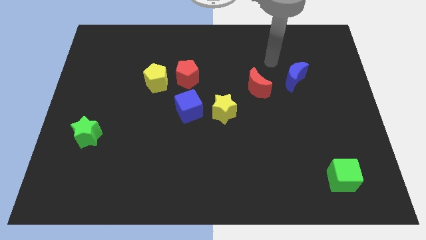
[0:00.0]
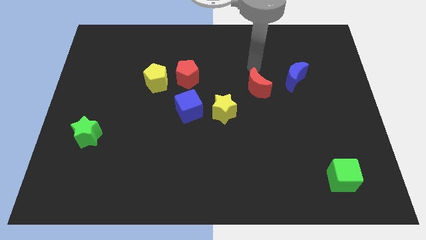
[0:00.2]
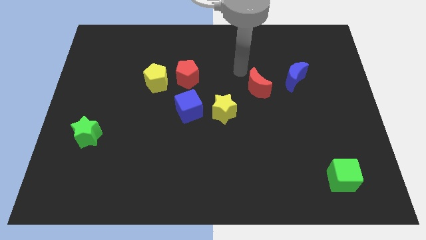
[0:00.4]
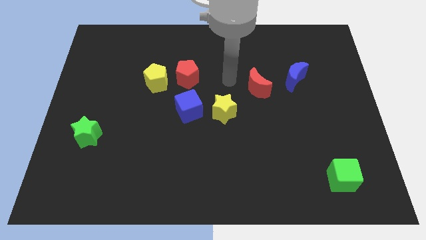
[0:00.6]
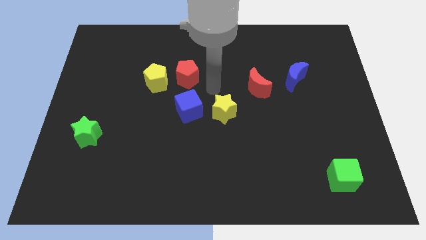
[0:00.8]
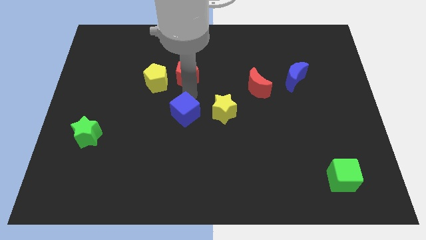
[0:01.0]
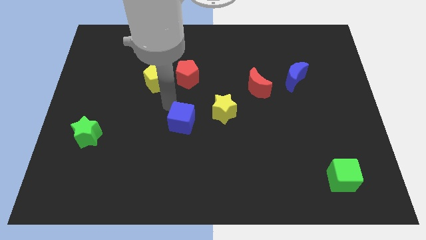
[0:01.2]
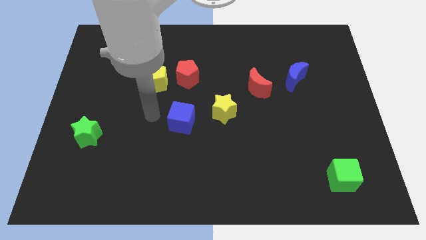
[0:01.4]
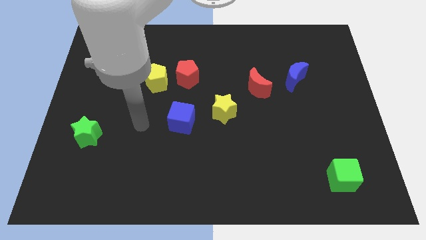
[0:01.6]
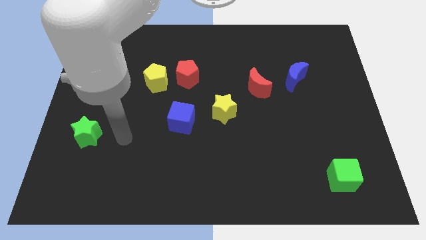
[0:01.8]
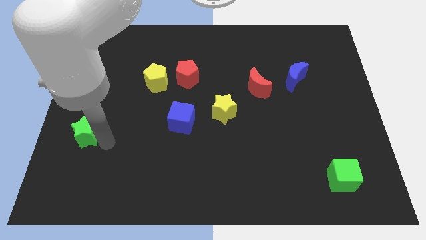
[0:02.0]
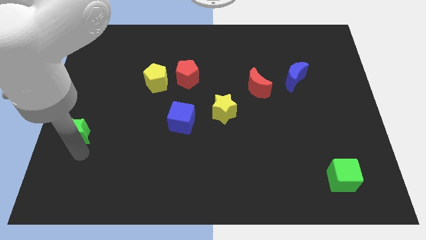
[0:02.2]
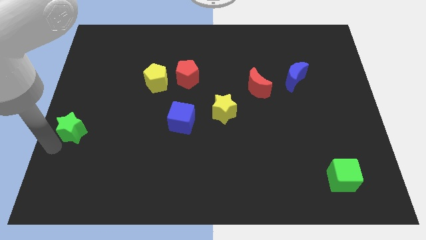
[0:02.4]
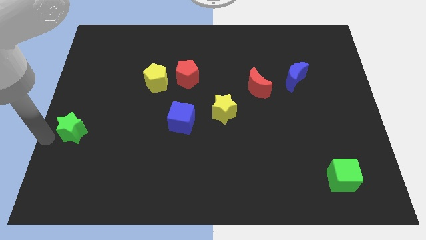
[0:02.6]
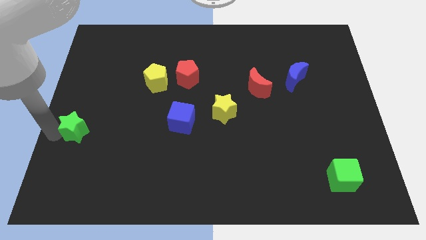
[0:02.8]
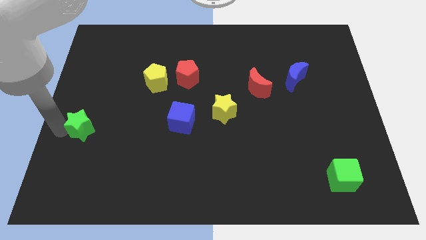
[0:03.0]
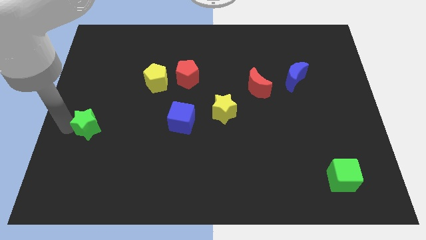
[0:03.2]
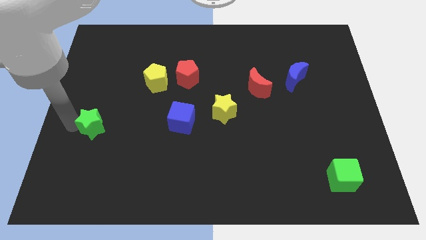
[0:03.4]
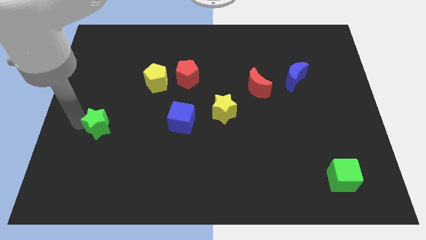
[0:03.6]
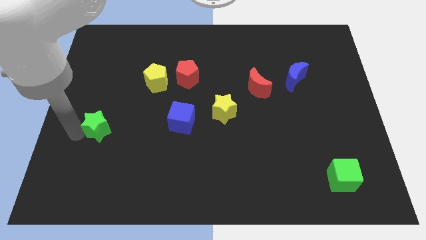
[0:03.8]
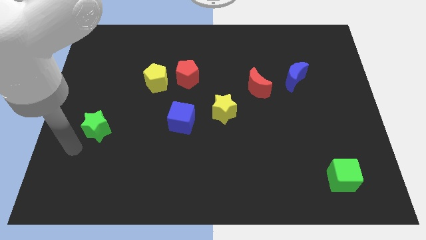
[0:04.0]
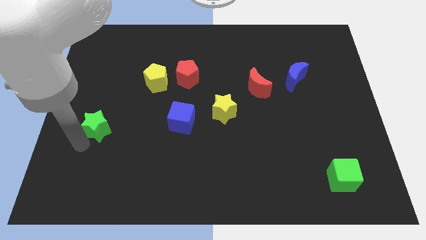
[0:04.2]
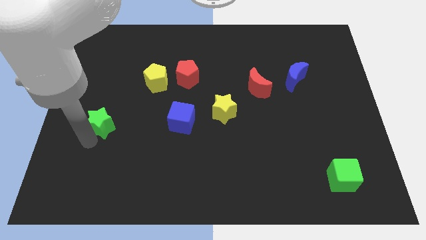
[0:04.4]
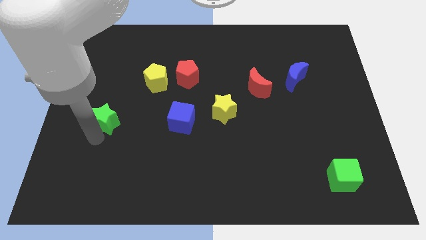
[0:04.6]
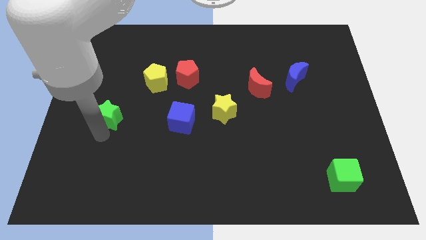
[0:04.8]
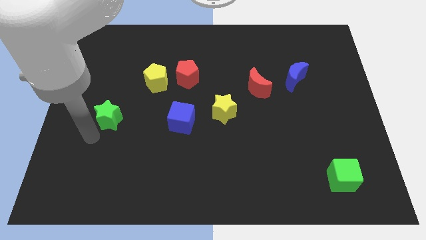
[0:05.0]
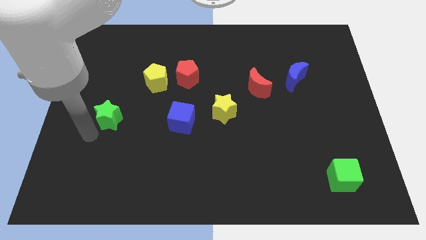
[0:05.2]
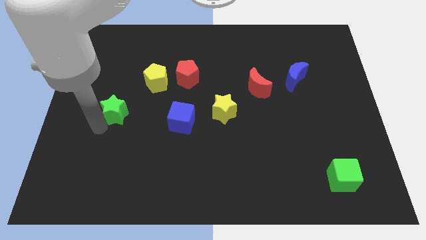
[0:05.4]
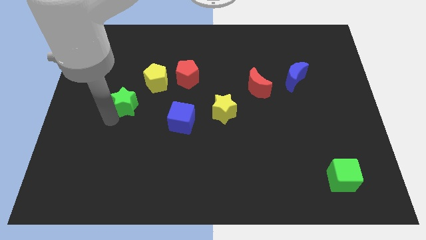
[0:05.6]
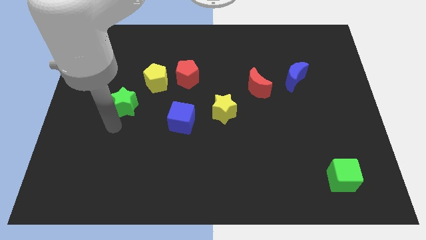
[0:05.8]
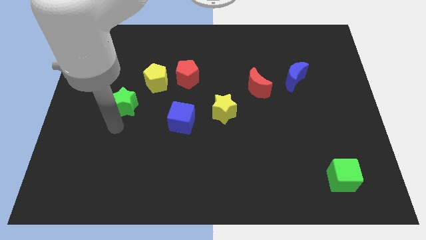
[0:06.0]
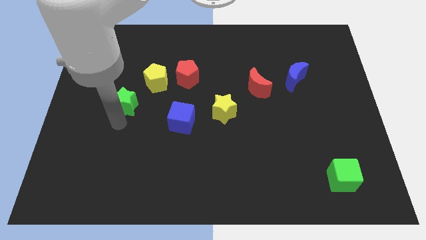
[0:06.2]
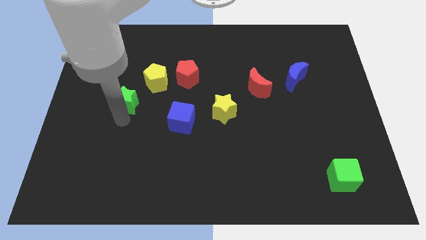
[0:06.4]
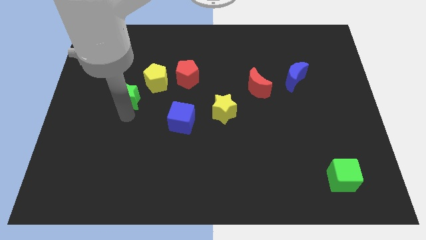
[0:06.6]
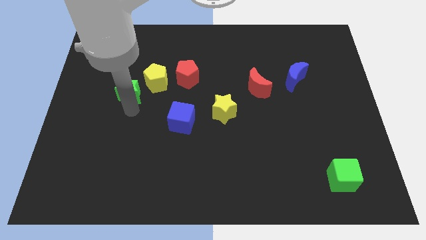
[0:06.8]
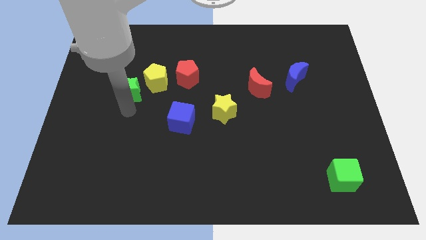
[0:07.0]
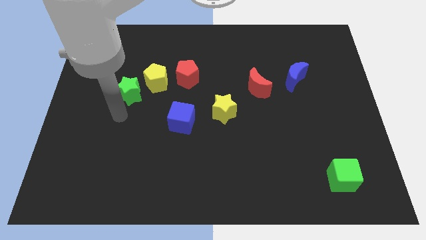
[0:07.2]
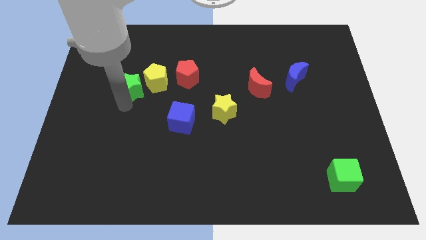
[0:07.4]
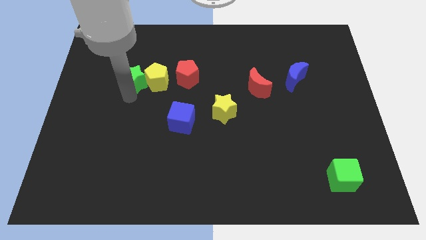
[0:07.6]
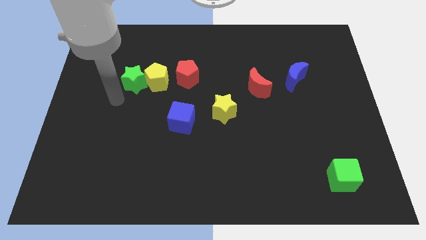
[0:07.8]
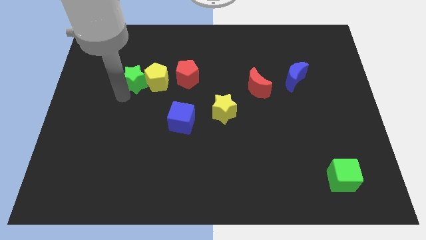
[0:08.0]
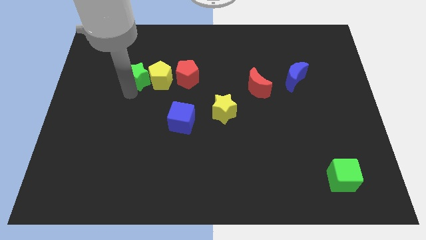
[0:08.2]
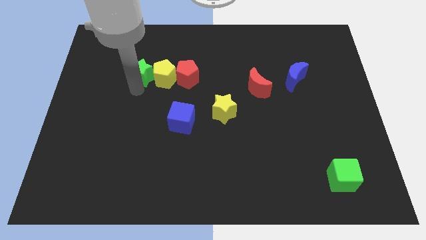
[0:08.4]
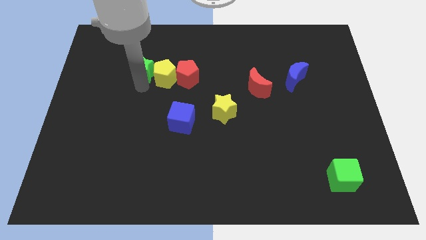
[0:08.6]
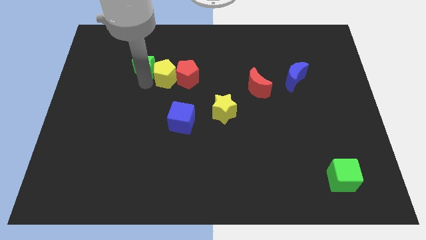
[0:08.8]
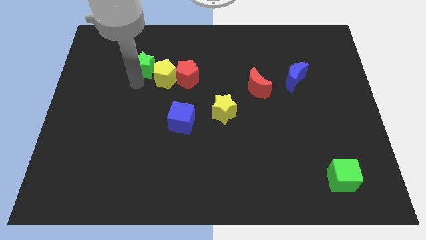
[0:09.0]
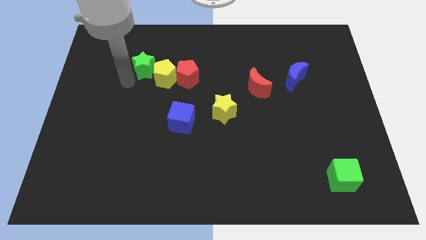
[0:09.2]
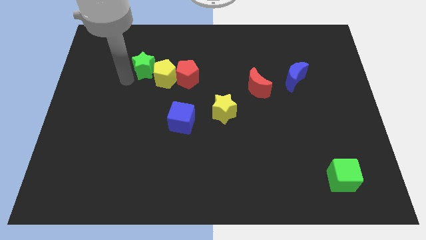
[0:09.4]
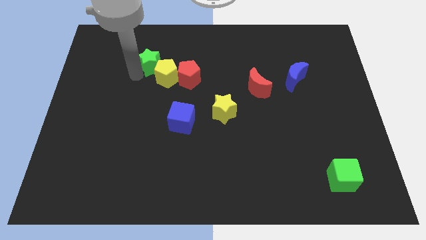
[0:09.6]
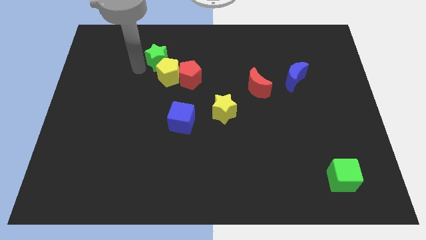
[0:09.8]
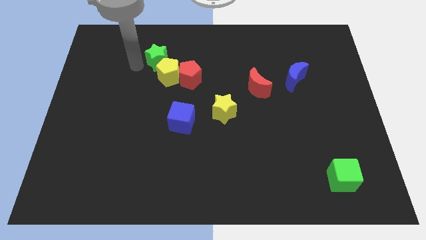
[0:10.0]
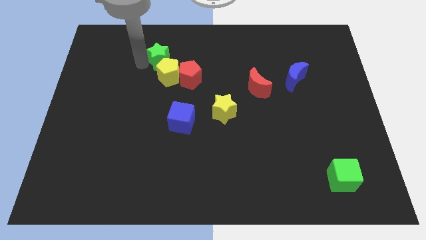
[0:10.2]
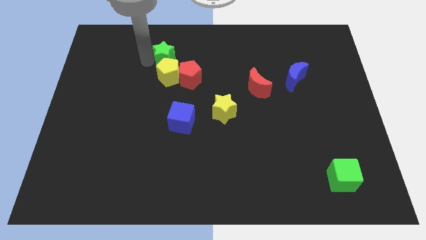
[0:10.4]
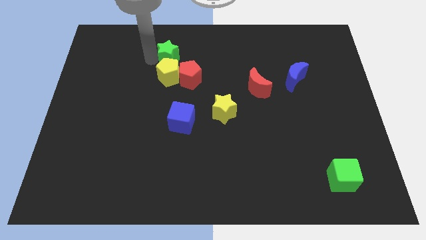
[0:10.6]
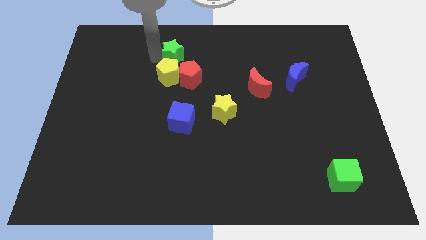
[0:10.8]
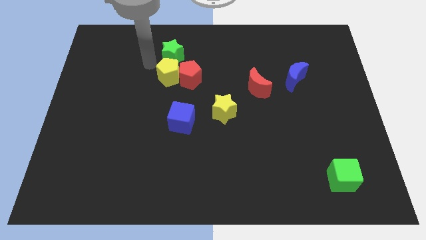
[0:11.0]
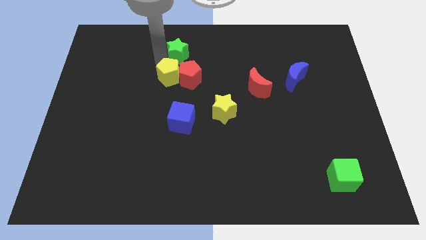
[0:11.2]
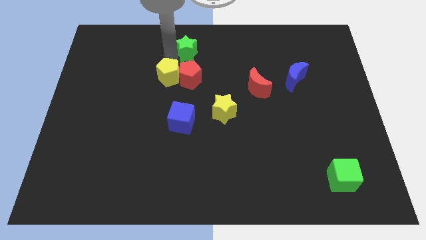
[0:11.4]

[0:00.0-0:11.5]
slide the green star to the towards your base

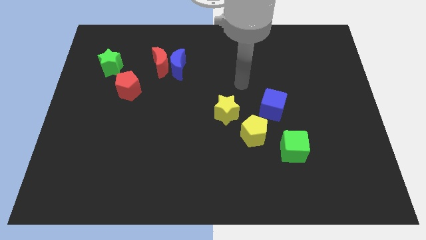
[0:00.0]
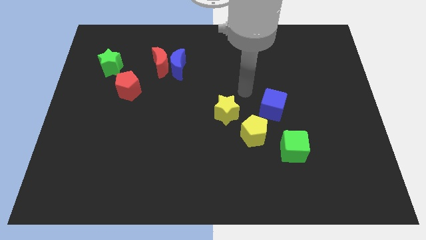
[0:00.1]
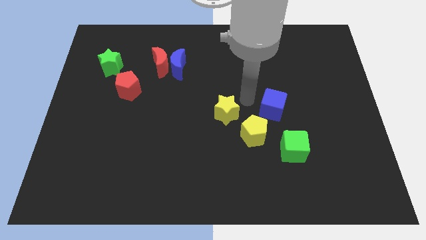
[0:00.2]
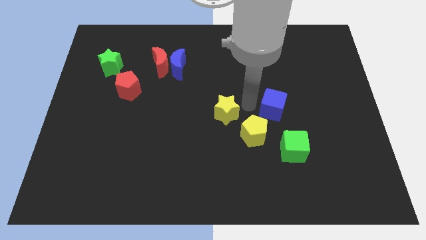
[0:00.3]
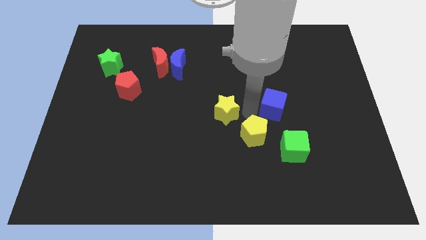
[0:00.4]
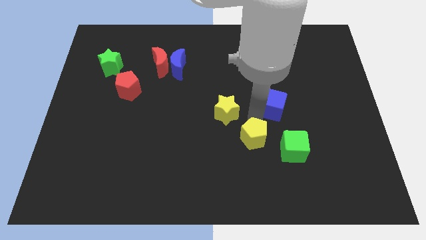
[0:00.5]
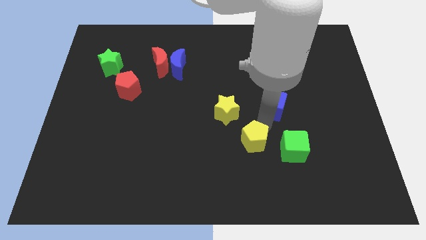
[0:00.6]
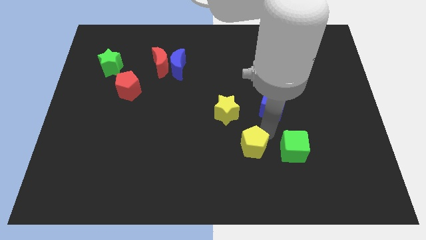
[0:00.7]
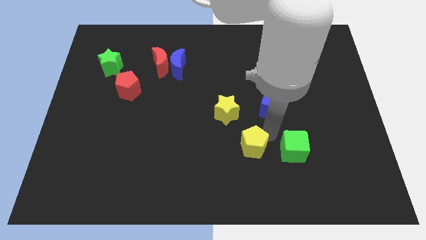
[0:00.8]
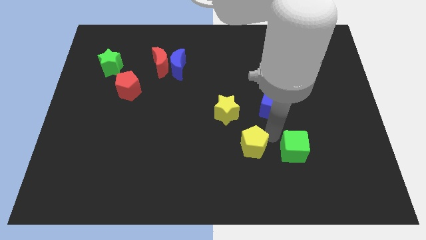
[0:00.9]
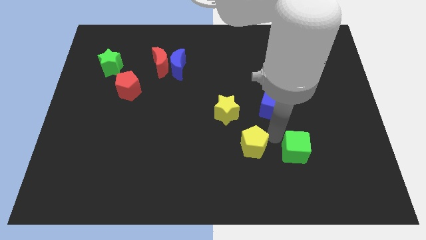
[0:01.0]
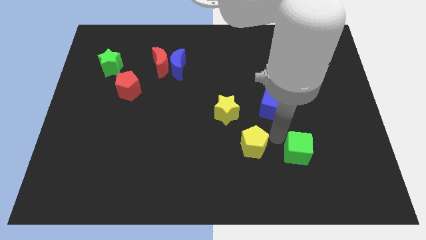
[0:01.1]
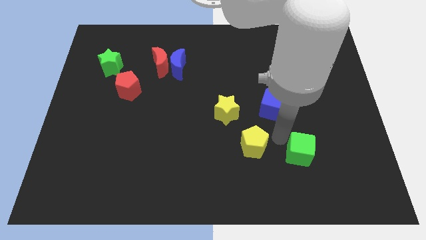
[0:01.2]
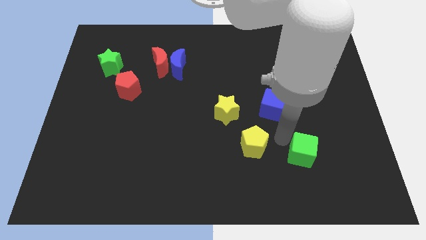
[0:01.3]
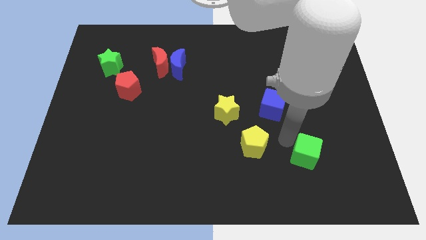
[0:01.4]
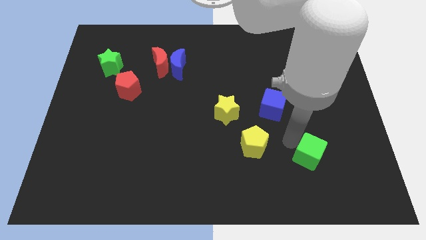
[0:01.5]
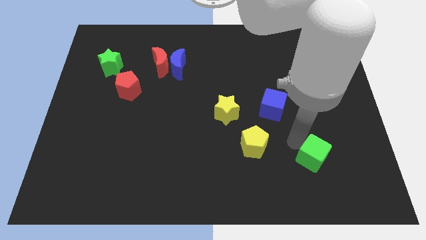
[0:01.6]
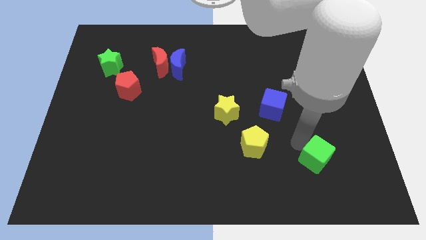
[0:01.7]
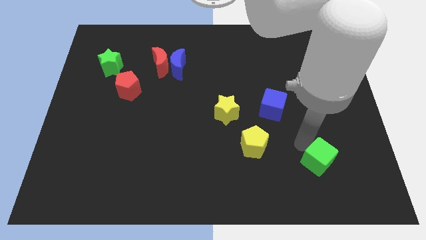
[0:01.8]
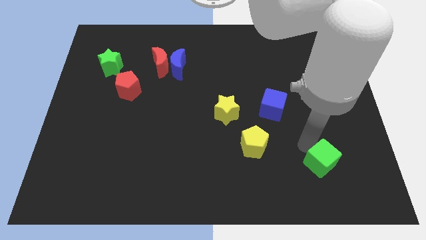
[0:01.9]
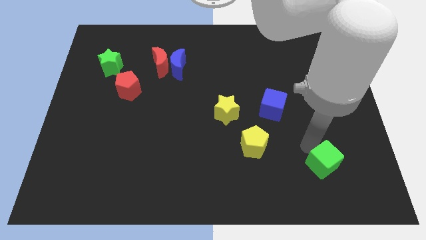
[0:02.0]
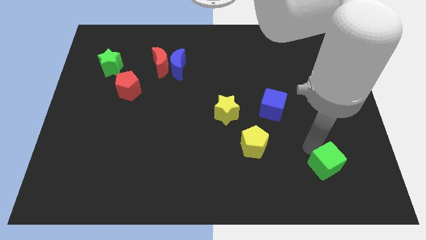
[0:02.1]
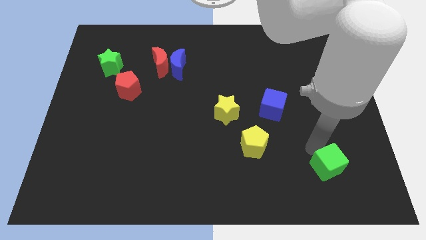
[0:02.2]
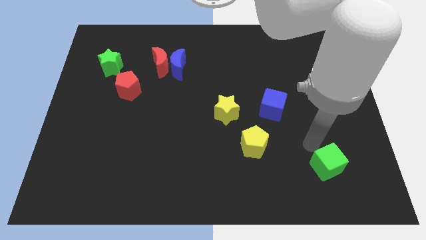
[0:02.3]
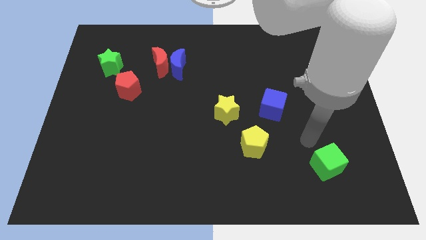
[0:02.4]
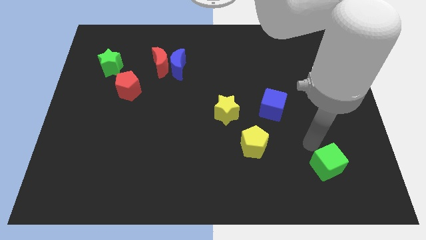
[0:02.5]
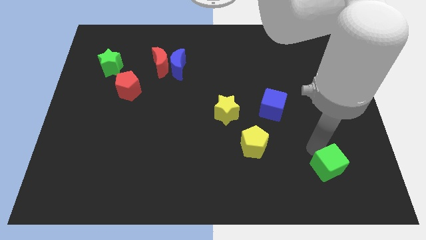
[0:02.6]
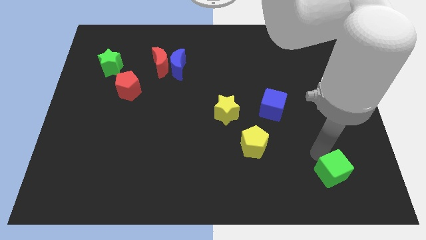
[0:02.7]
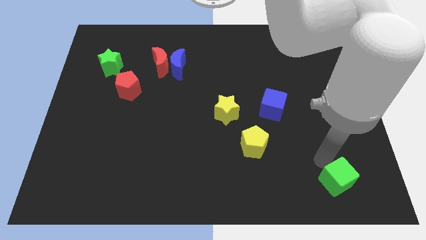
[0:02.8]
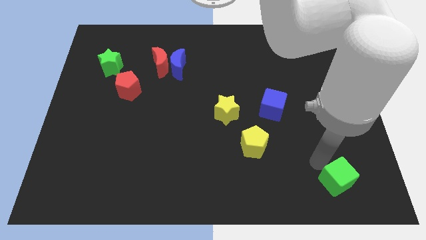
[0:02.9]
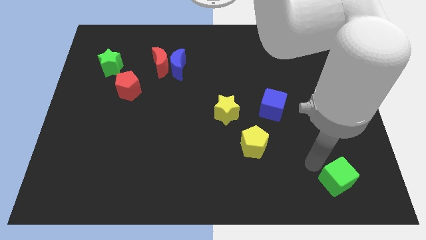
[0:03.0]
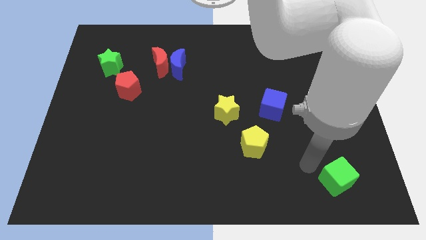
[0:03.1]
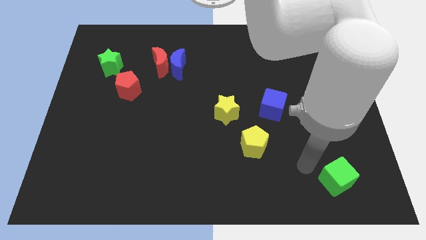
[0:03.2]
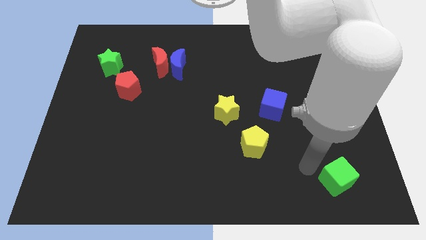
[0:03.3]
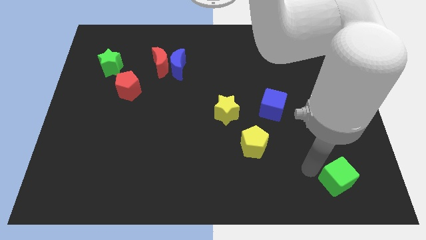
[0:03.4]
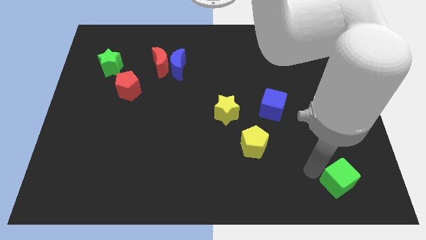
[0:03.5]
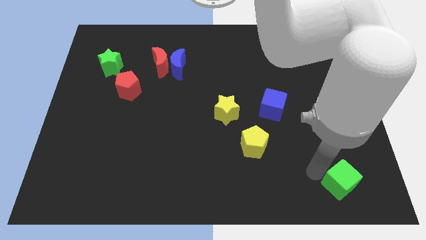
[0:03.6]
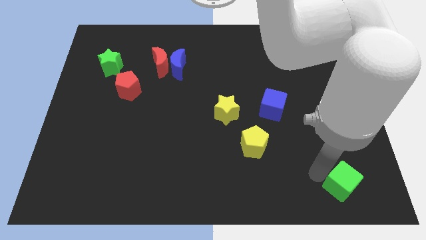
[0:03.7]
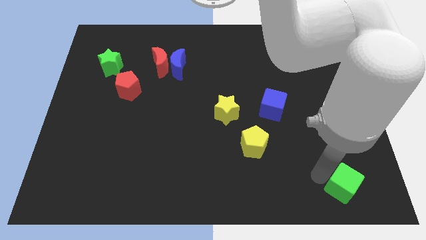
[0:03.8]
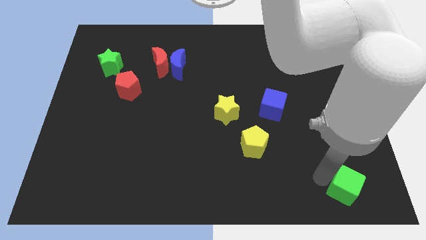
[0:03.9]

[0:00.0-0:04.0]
move the green cube to the lower right corner
